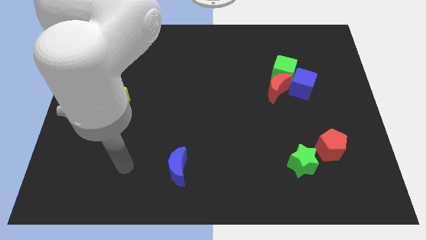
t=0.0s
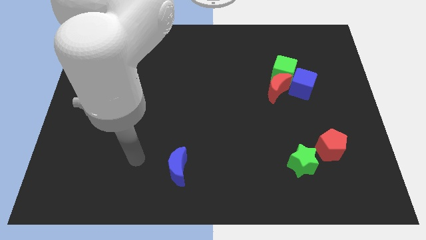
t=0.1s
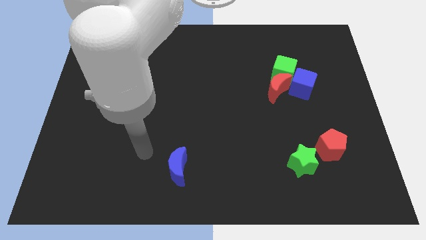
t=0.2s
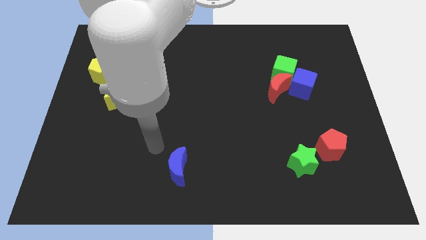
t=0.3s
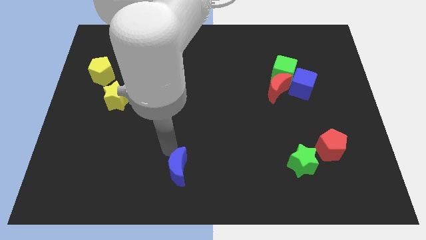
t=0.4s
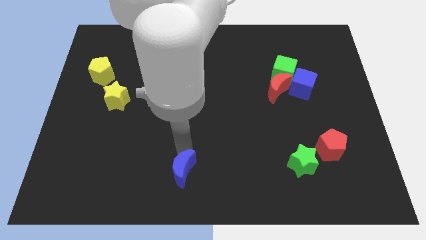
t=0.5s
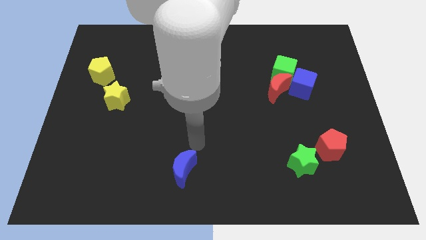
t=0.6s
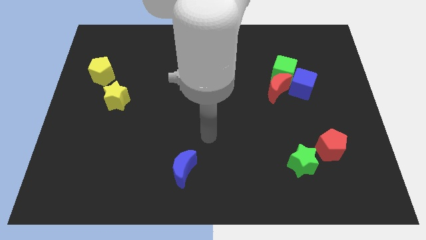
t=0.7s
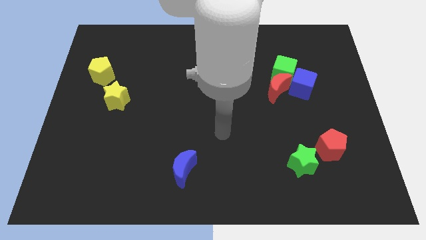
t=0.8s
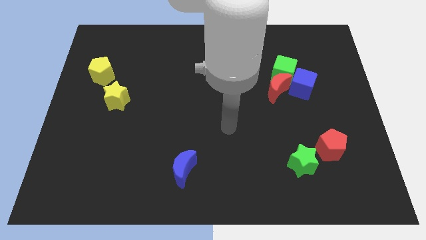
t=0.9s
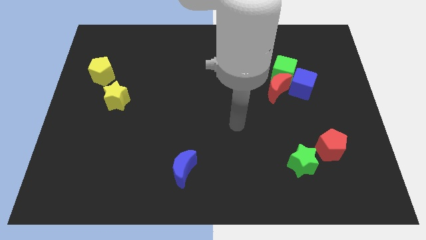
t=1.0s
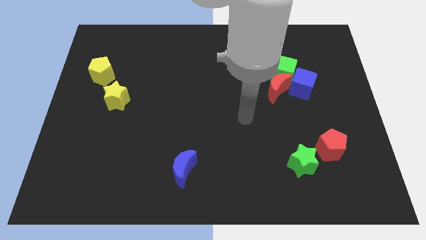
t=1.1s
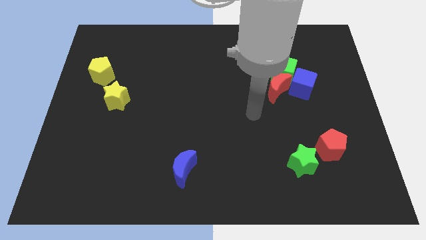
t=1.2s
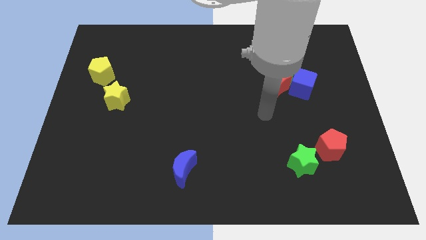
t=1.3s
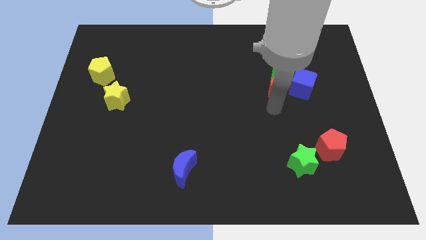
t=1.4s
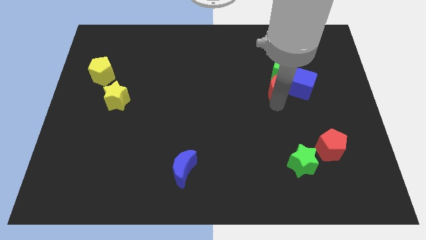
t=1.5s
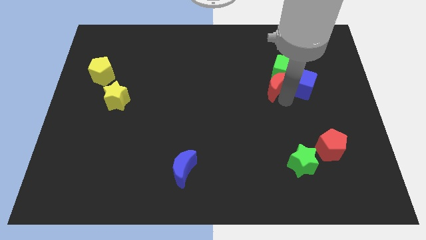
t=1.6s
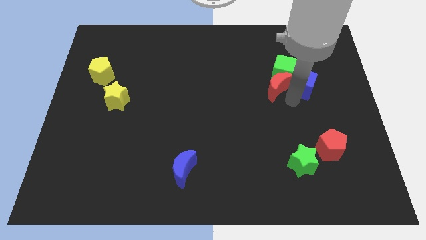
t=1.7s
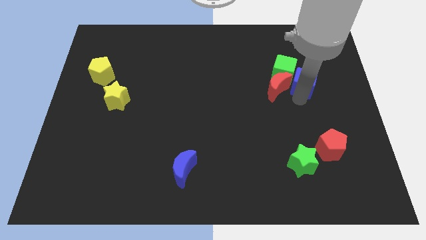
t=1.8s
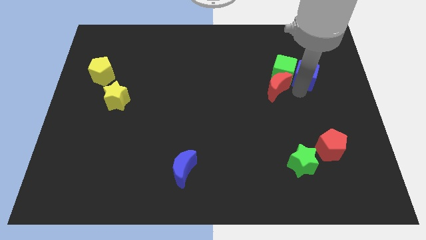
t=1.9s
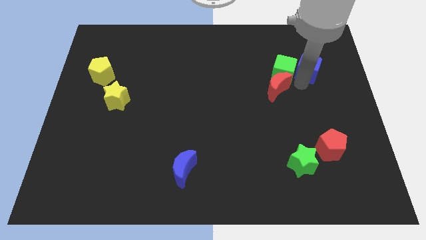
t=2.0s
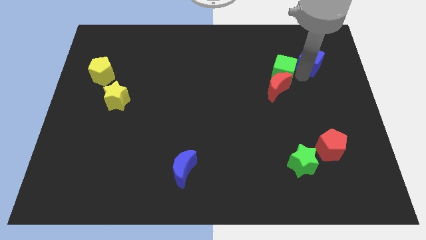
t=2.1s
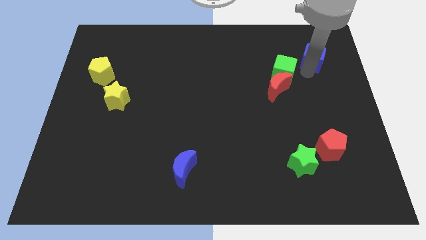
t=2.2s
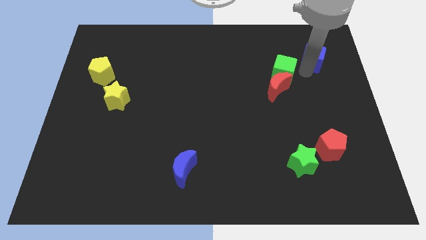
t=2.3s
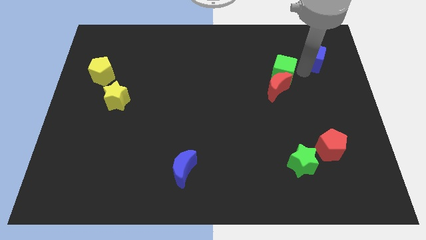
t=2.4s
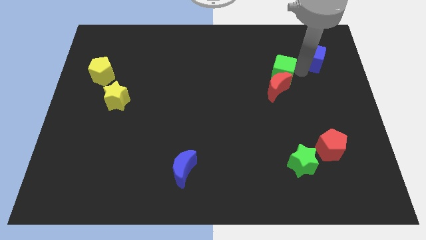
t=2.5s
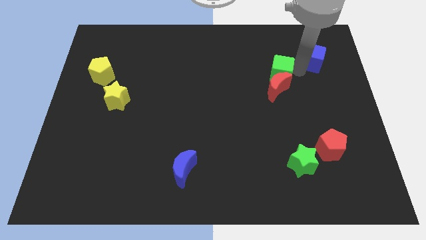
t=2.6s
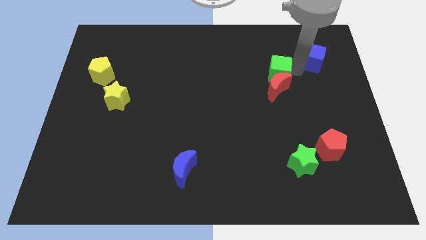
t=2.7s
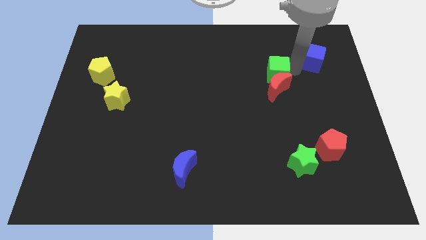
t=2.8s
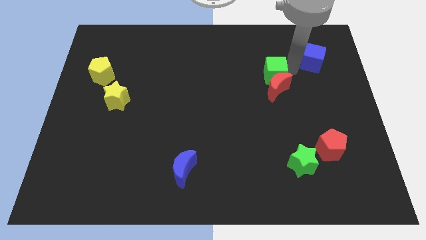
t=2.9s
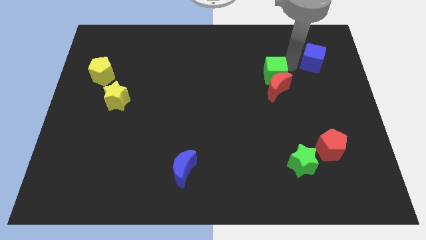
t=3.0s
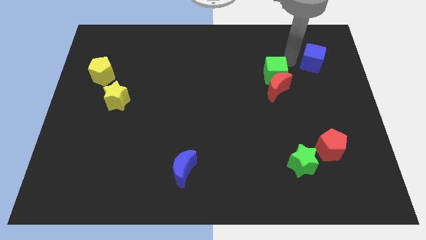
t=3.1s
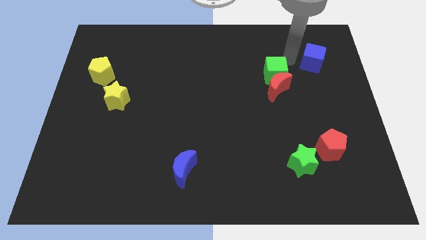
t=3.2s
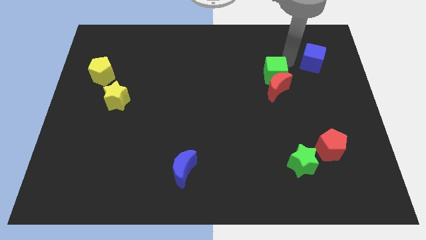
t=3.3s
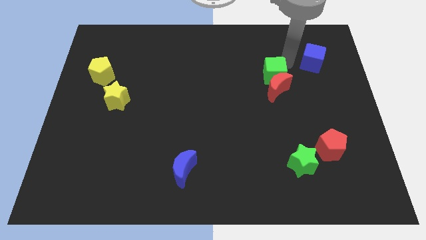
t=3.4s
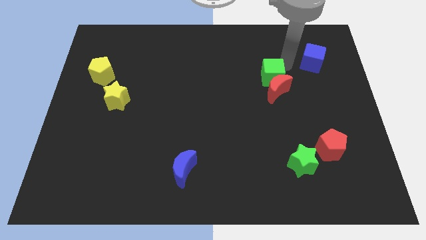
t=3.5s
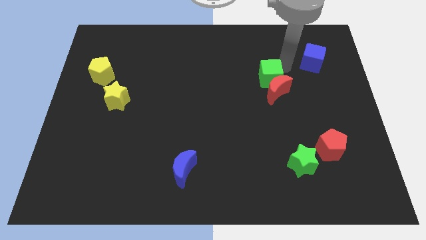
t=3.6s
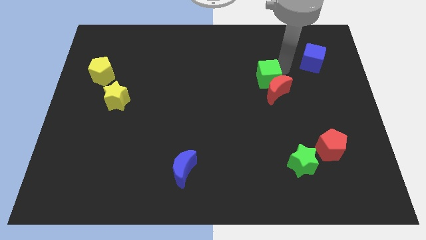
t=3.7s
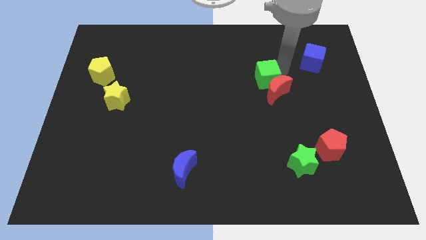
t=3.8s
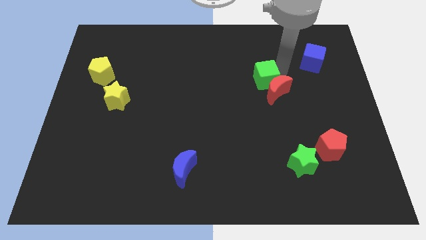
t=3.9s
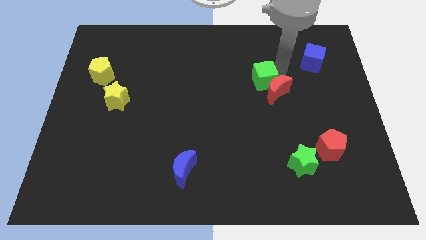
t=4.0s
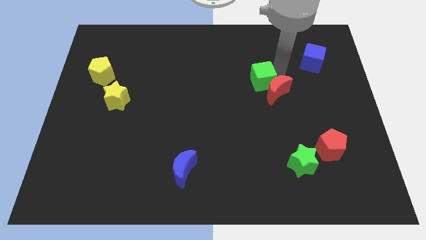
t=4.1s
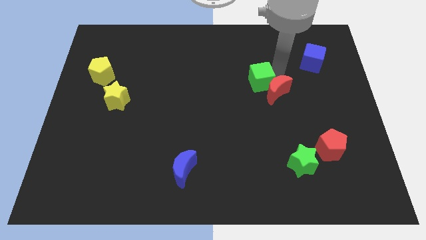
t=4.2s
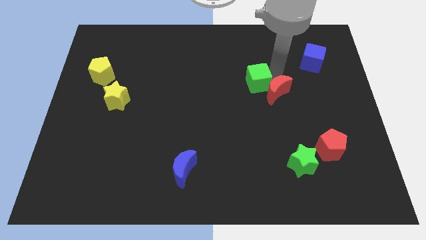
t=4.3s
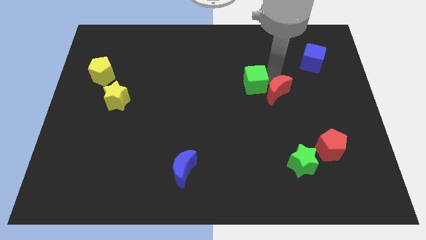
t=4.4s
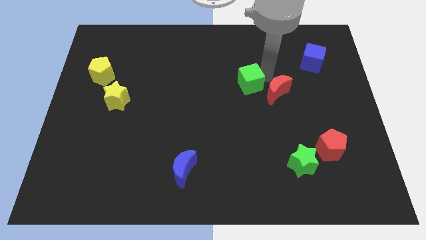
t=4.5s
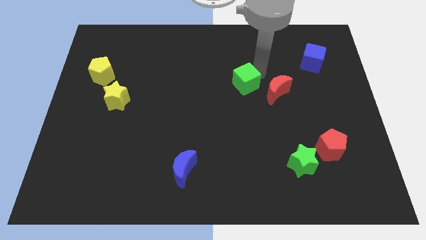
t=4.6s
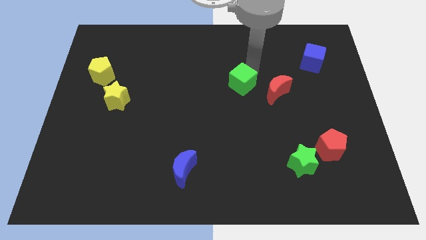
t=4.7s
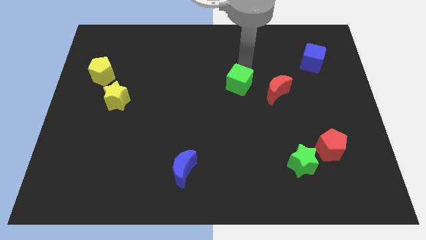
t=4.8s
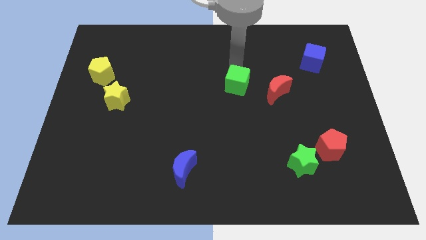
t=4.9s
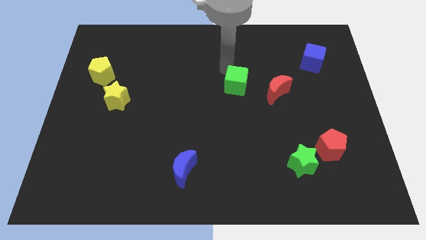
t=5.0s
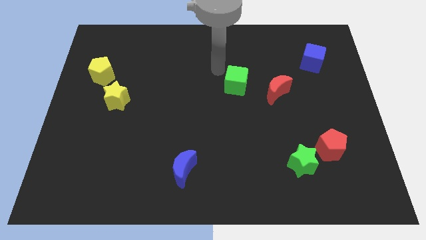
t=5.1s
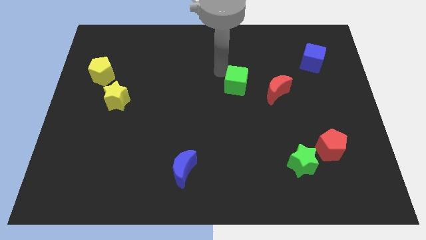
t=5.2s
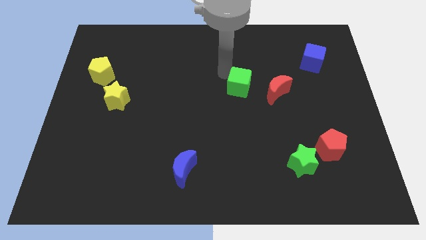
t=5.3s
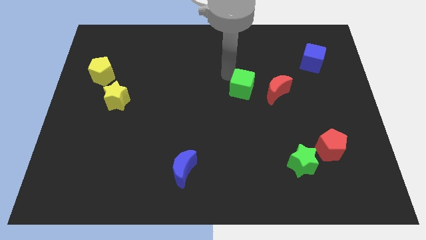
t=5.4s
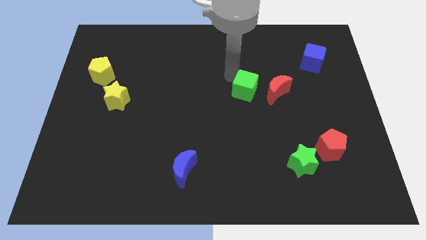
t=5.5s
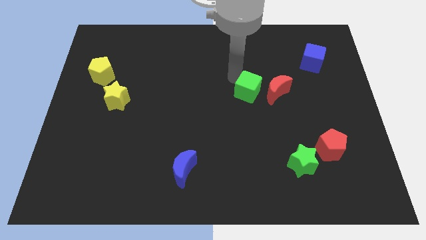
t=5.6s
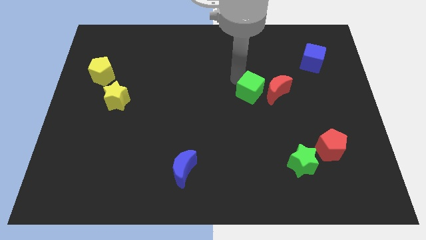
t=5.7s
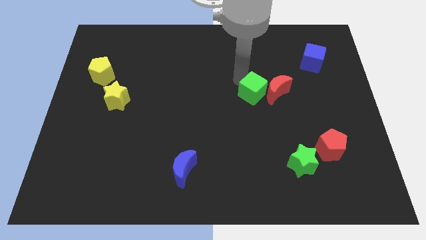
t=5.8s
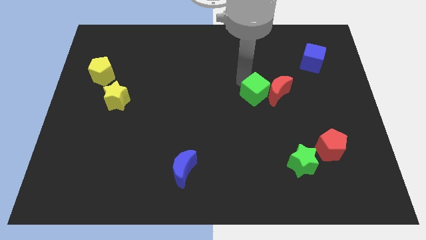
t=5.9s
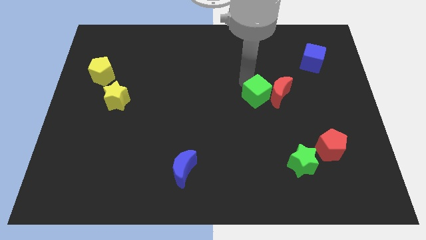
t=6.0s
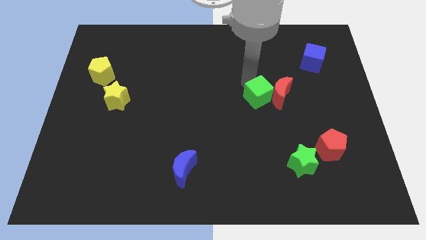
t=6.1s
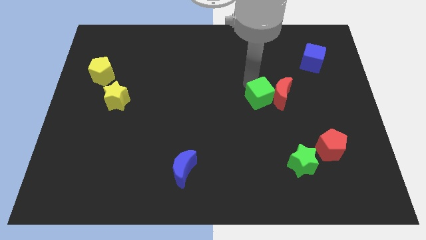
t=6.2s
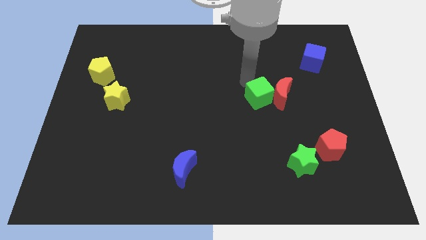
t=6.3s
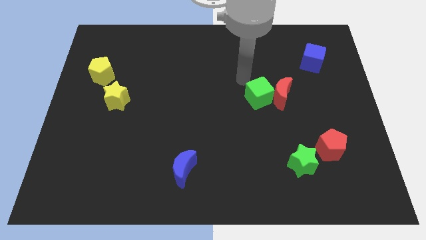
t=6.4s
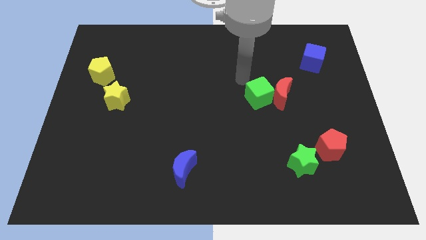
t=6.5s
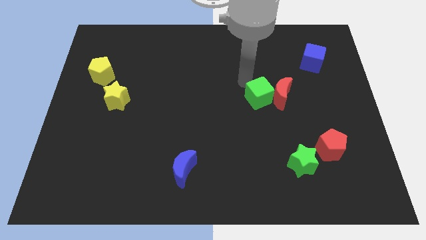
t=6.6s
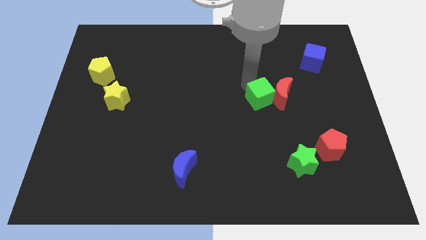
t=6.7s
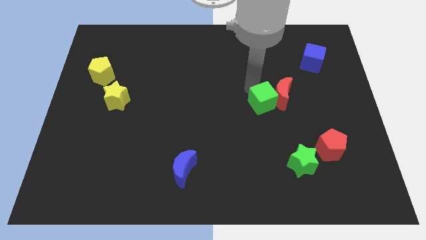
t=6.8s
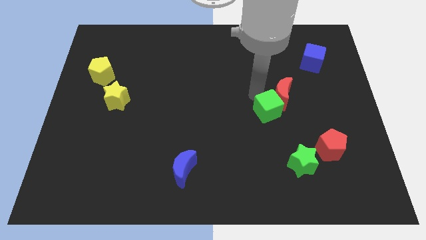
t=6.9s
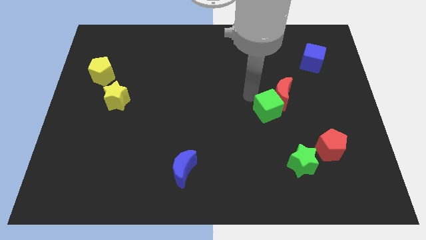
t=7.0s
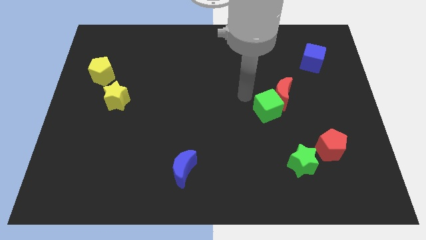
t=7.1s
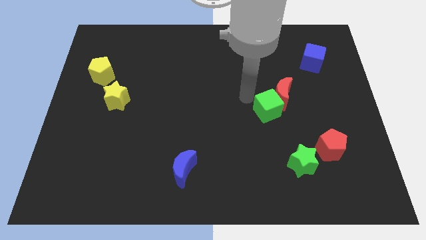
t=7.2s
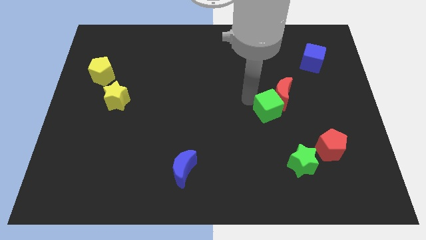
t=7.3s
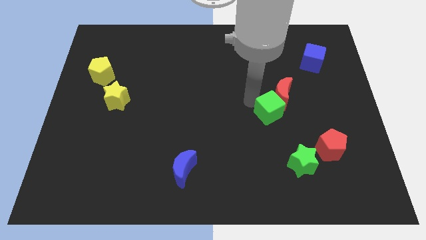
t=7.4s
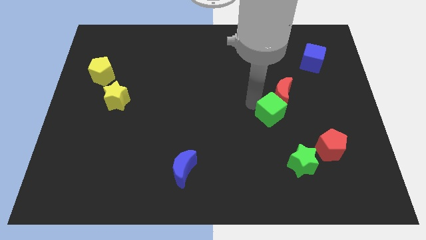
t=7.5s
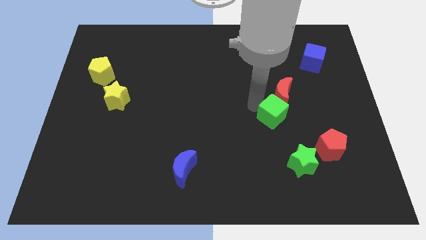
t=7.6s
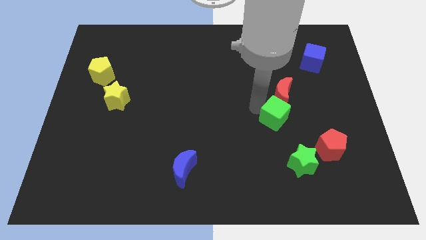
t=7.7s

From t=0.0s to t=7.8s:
move the green cube to the top side of the green star
